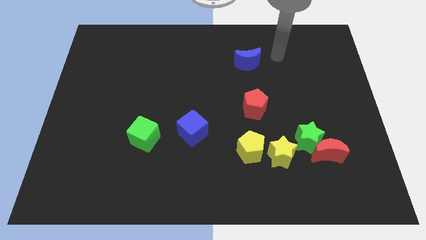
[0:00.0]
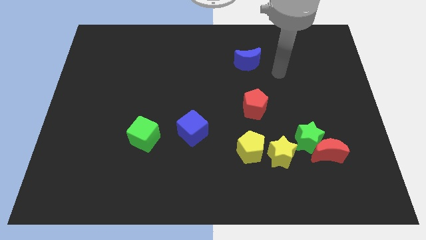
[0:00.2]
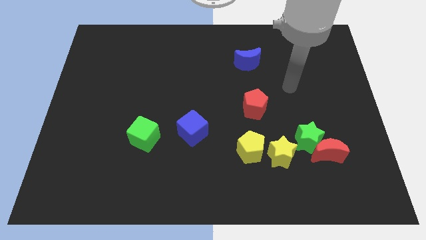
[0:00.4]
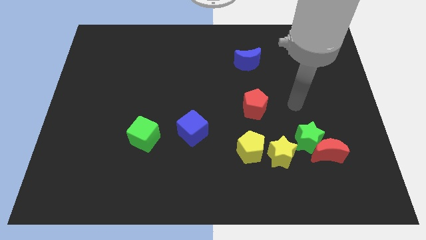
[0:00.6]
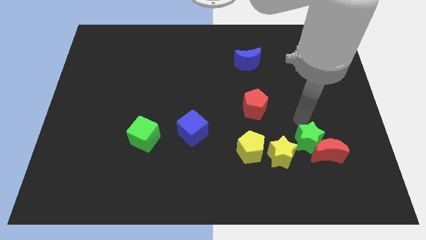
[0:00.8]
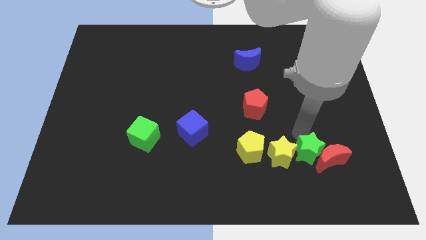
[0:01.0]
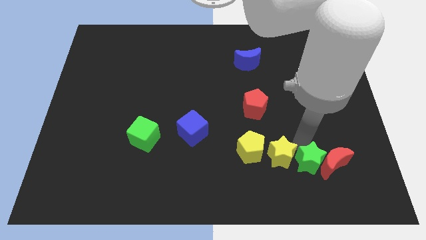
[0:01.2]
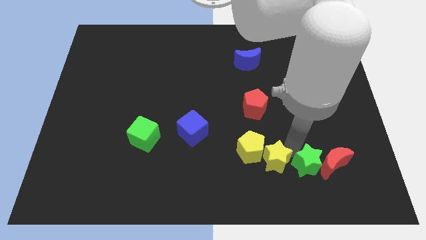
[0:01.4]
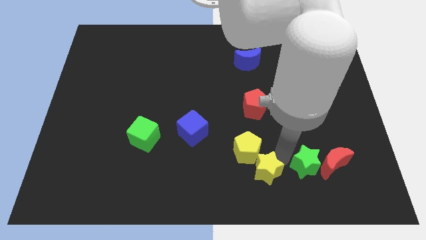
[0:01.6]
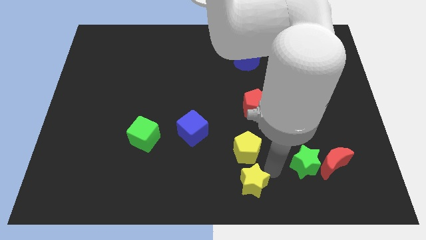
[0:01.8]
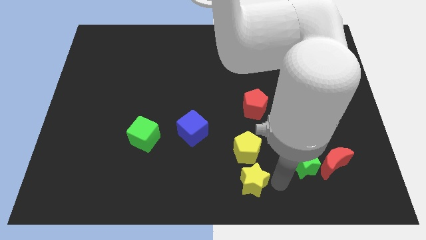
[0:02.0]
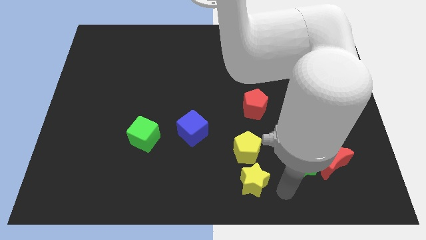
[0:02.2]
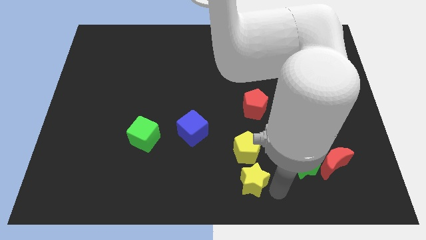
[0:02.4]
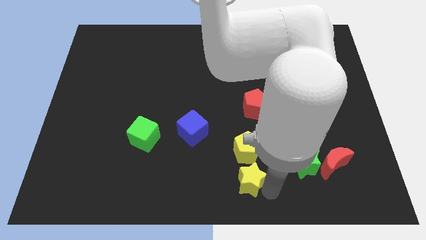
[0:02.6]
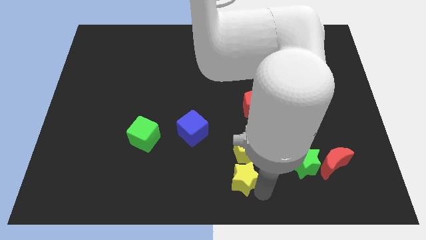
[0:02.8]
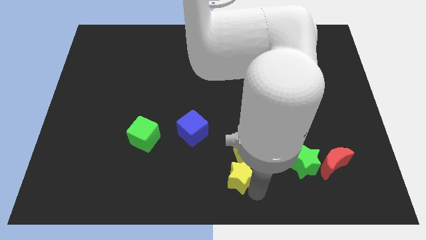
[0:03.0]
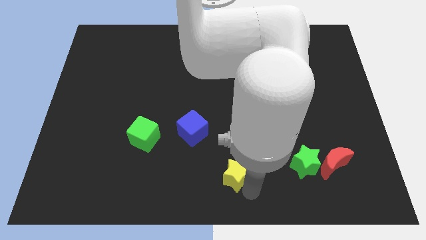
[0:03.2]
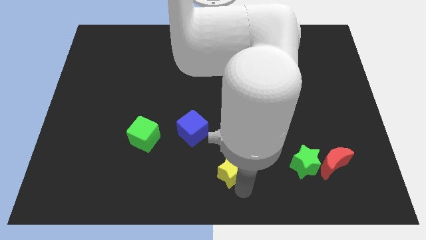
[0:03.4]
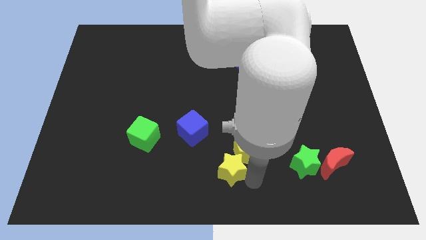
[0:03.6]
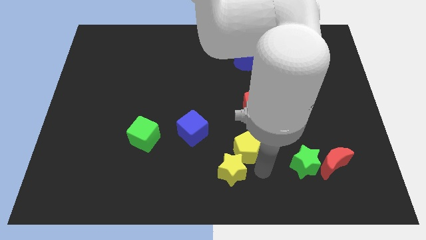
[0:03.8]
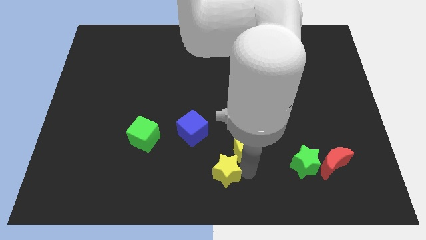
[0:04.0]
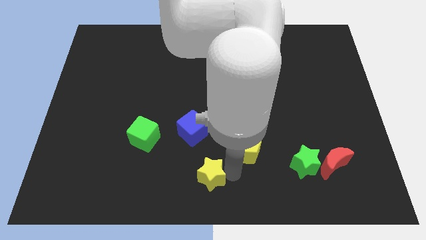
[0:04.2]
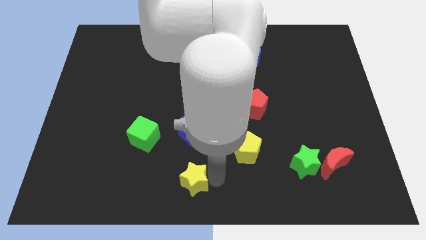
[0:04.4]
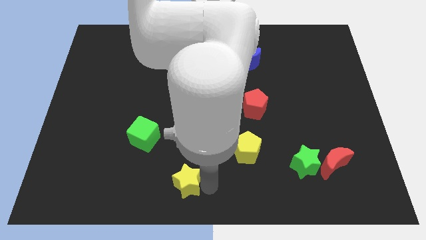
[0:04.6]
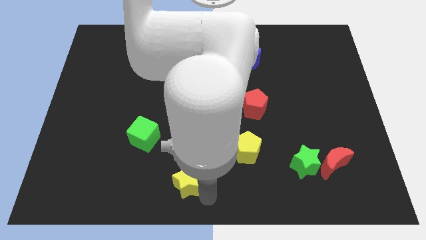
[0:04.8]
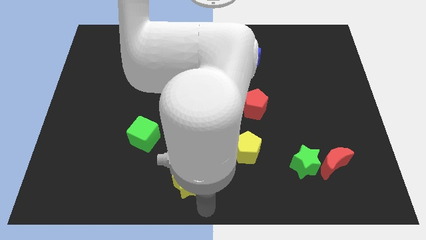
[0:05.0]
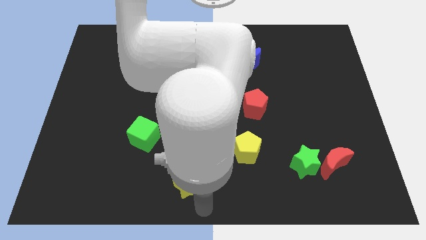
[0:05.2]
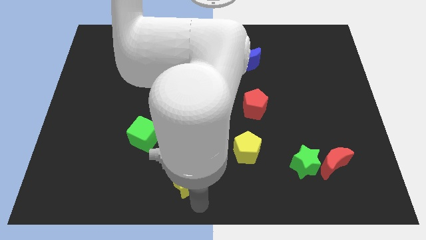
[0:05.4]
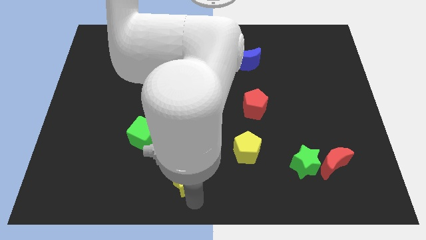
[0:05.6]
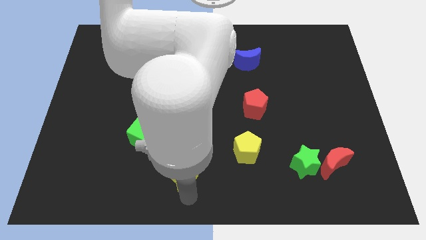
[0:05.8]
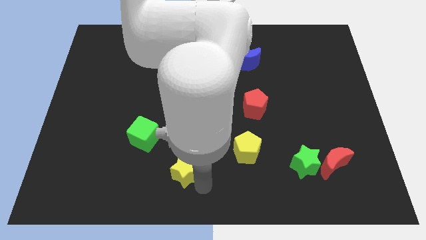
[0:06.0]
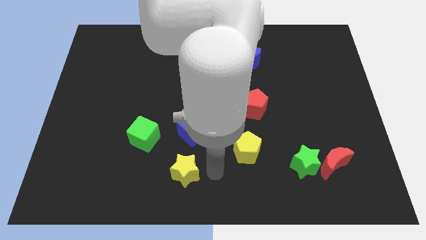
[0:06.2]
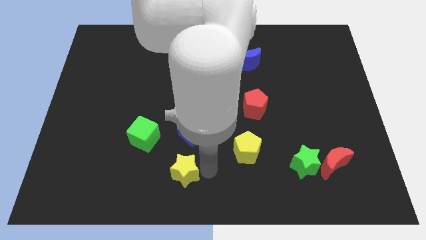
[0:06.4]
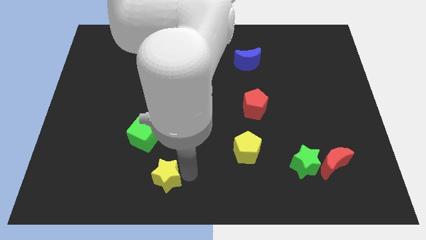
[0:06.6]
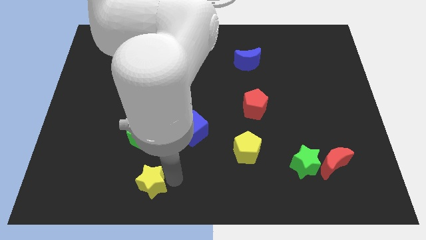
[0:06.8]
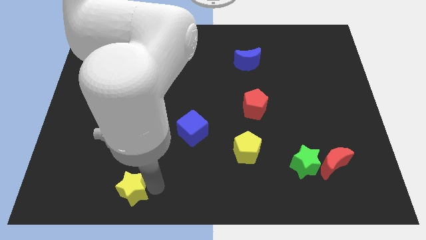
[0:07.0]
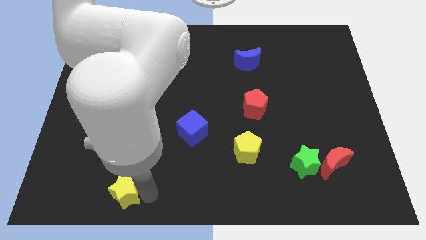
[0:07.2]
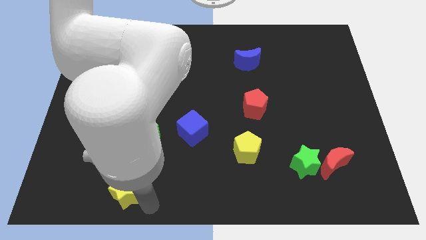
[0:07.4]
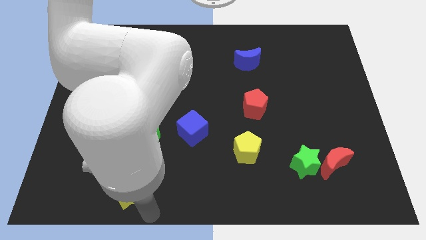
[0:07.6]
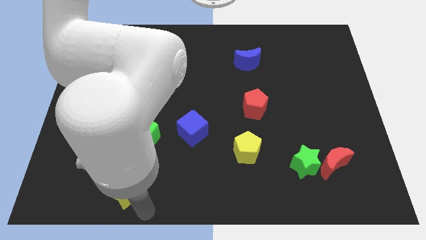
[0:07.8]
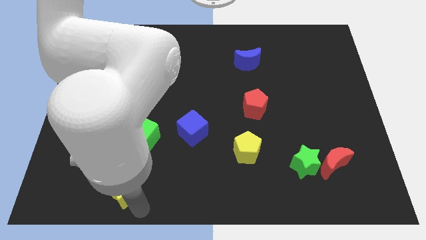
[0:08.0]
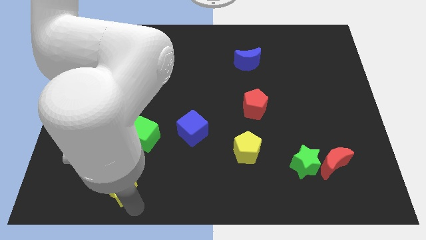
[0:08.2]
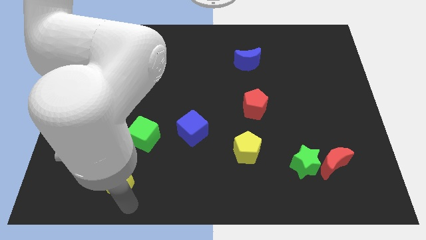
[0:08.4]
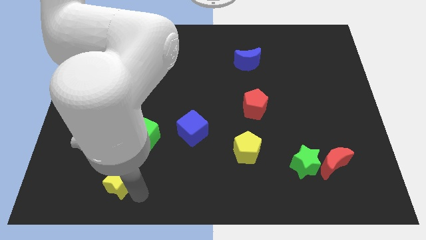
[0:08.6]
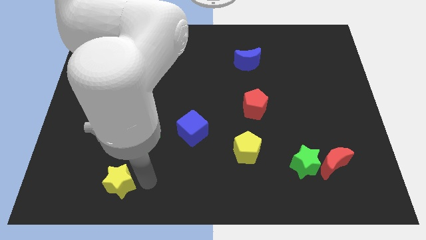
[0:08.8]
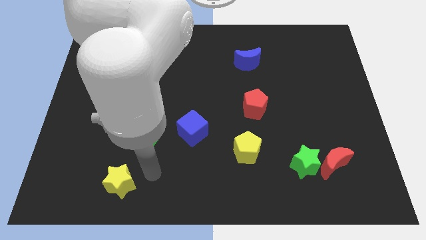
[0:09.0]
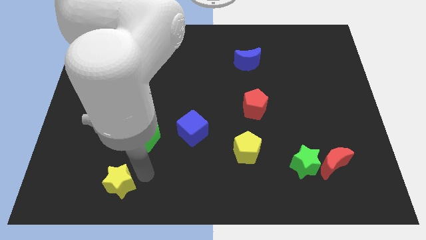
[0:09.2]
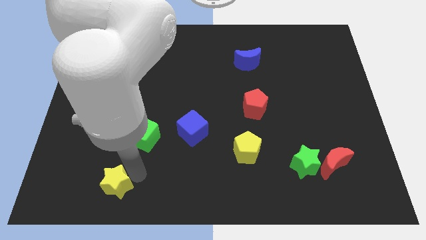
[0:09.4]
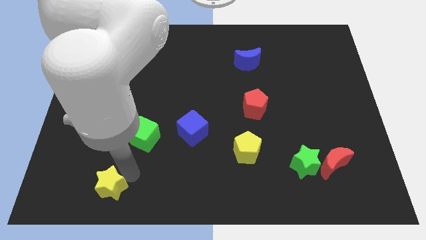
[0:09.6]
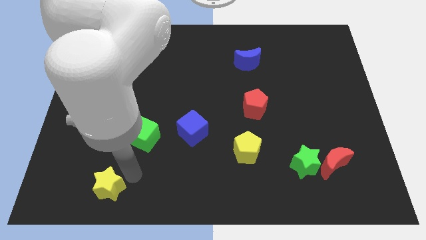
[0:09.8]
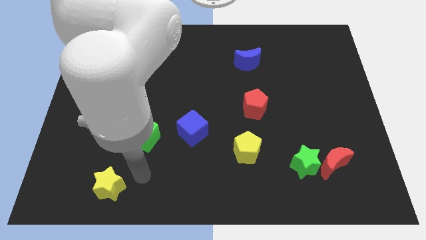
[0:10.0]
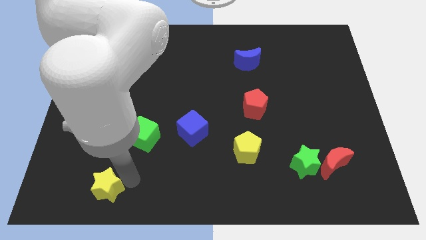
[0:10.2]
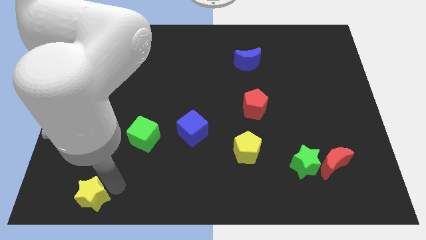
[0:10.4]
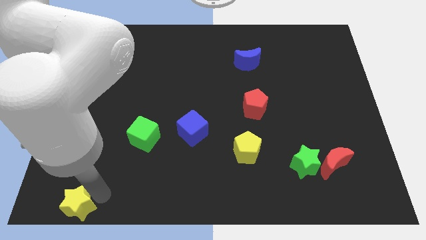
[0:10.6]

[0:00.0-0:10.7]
slide the yellow star to the bottom left corner

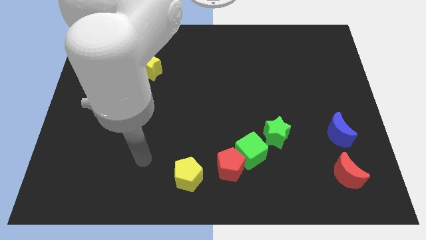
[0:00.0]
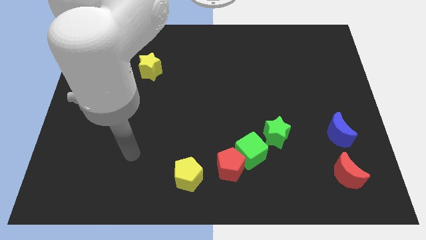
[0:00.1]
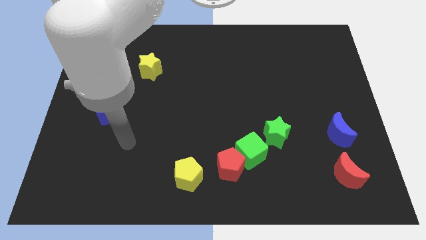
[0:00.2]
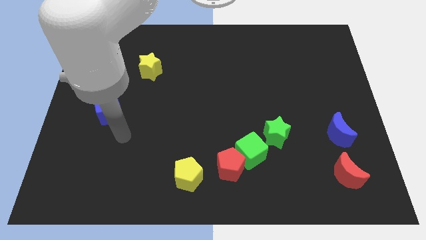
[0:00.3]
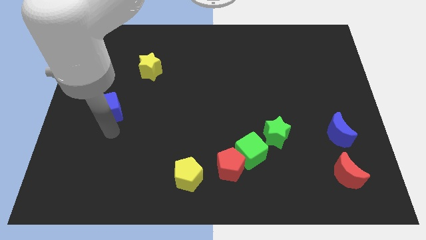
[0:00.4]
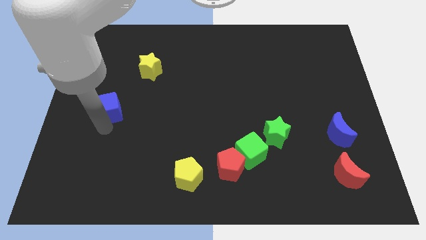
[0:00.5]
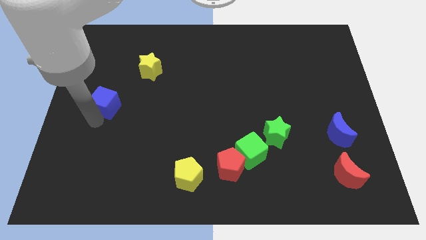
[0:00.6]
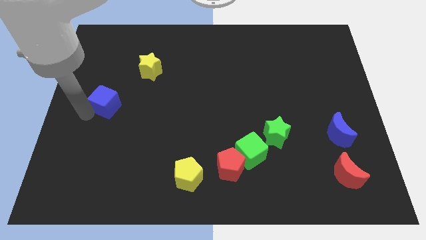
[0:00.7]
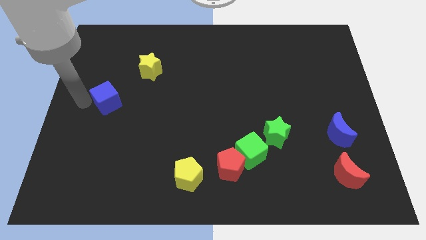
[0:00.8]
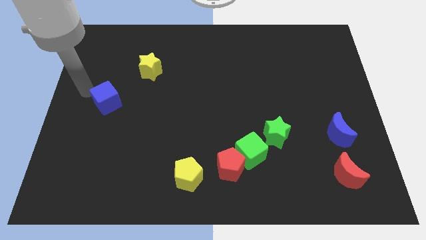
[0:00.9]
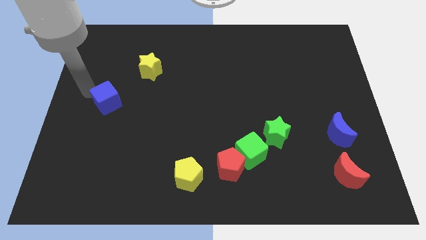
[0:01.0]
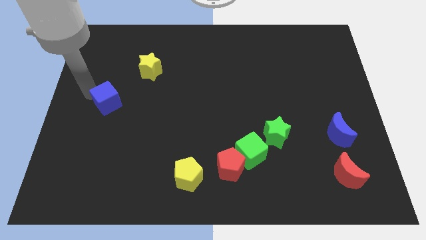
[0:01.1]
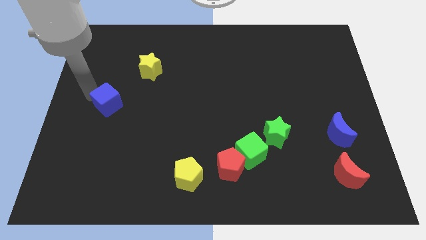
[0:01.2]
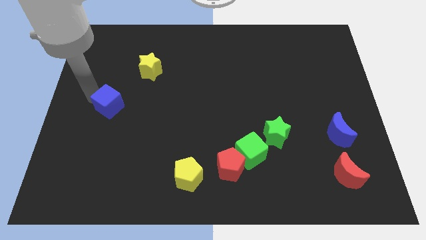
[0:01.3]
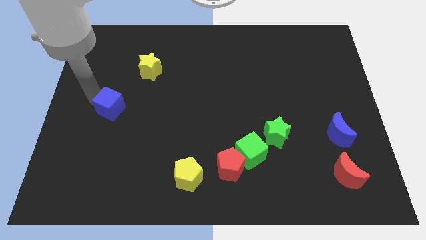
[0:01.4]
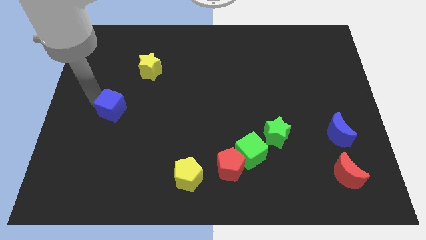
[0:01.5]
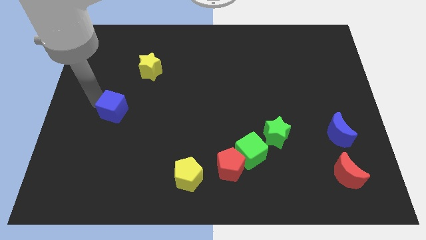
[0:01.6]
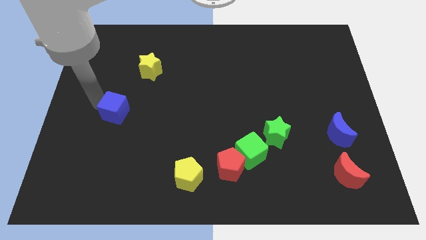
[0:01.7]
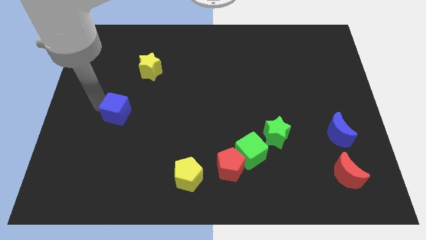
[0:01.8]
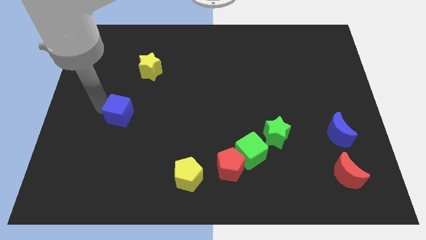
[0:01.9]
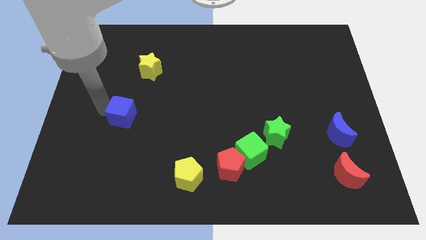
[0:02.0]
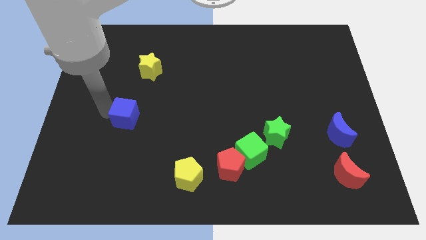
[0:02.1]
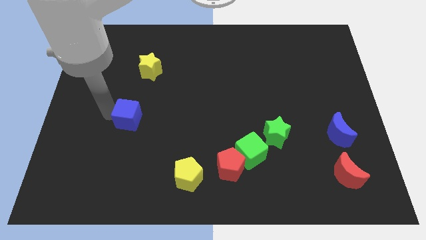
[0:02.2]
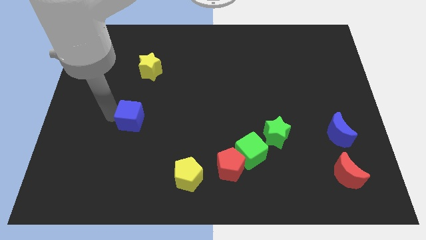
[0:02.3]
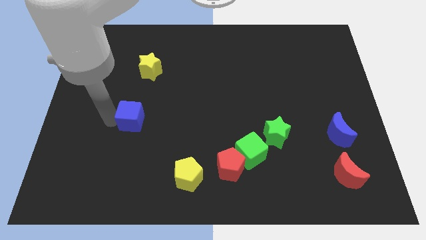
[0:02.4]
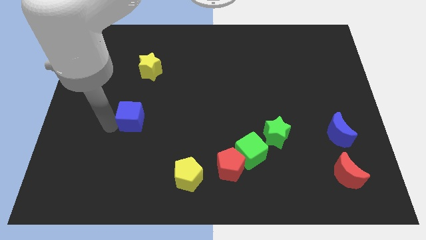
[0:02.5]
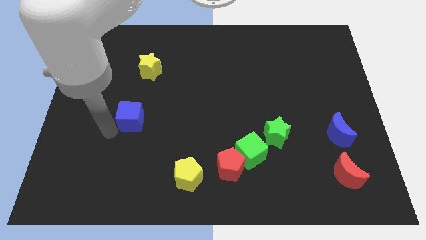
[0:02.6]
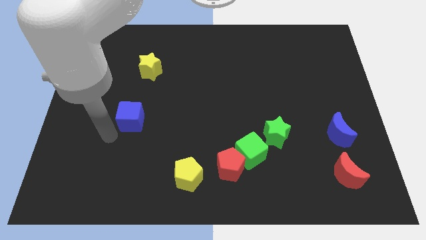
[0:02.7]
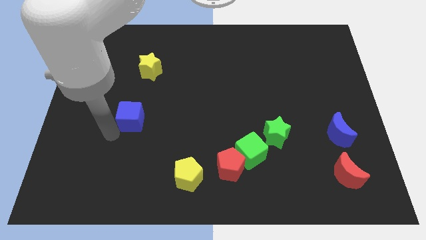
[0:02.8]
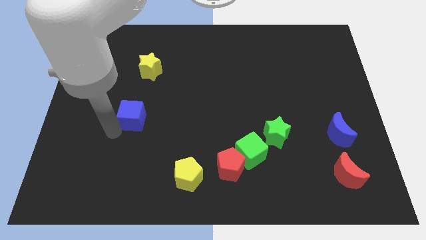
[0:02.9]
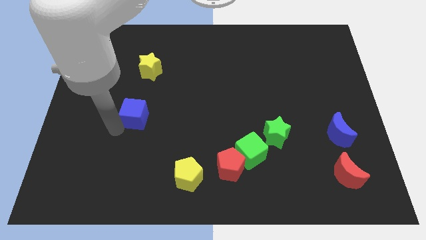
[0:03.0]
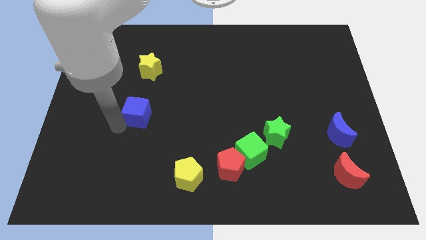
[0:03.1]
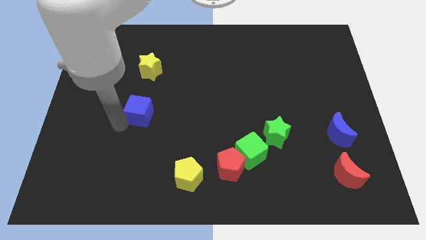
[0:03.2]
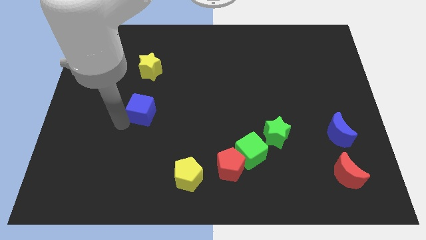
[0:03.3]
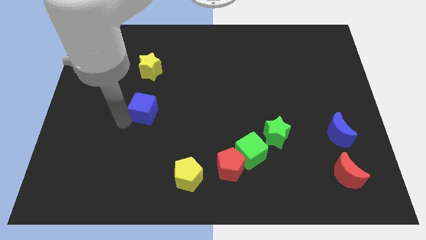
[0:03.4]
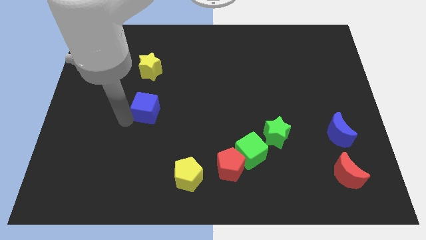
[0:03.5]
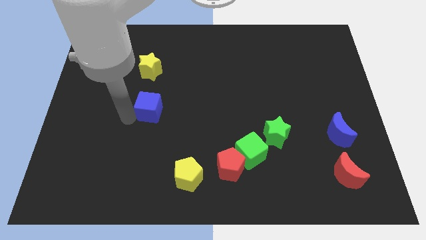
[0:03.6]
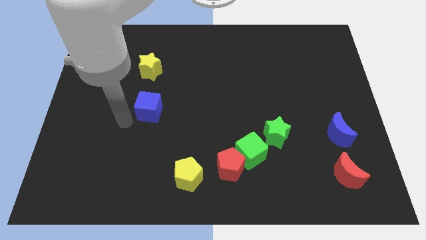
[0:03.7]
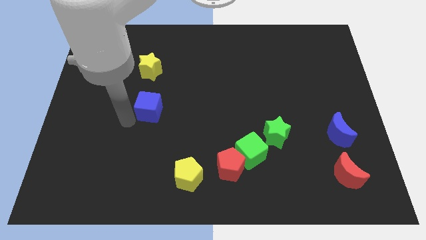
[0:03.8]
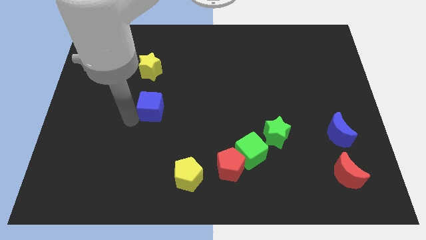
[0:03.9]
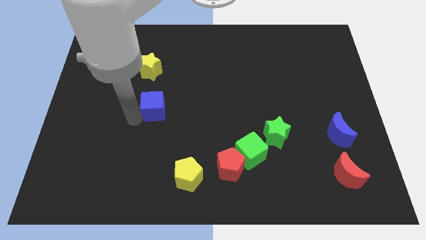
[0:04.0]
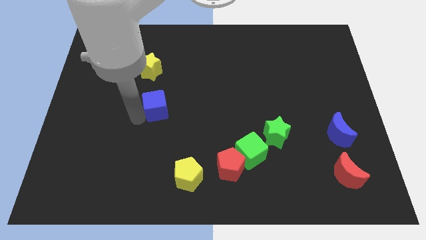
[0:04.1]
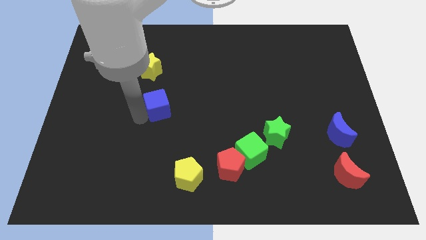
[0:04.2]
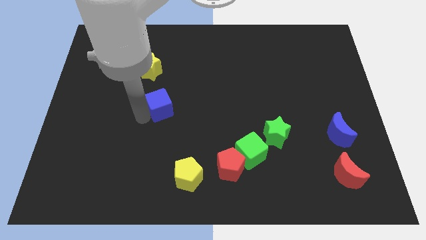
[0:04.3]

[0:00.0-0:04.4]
push the blue cube to the middle of the board
